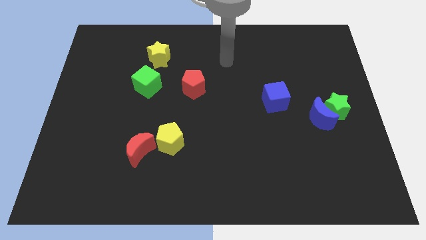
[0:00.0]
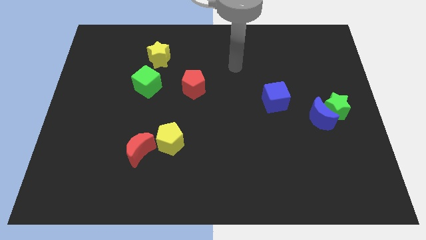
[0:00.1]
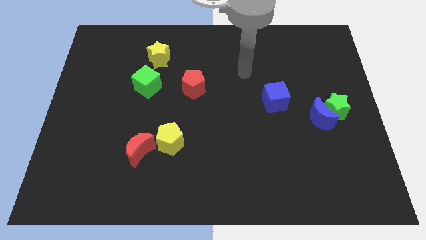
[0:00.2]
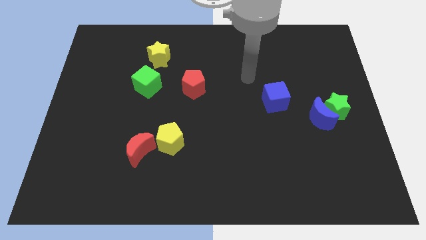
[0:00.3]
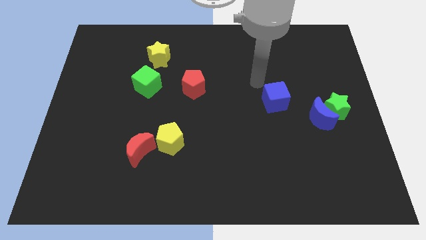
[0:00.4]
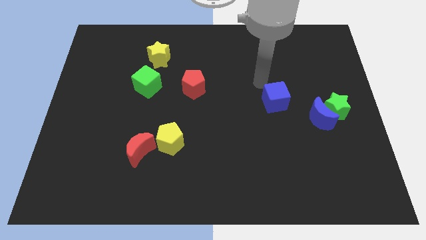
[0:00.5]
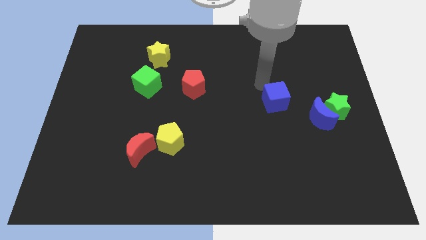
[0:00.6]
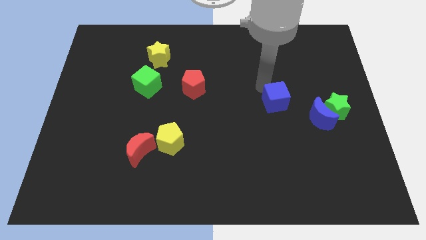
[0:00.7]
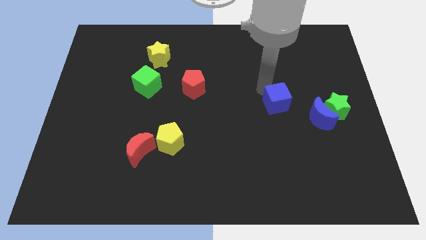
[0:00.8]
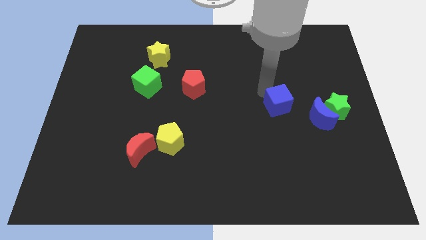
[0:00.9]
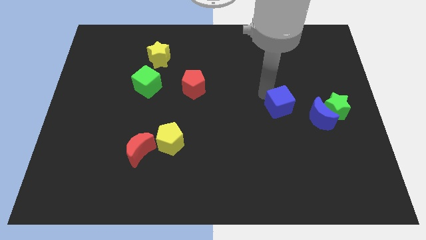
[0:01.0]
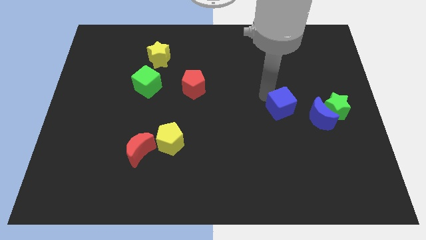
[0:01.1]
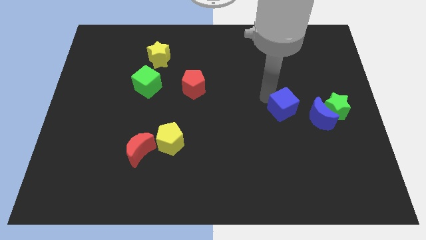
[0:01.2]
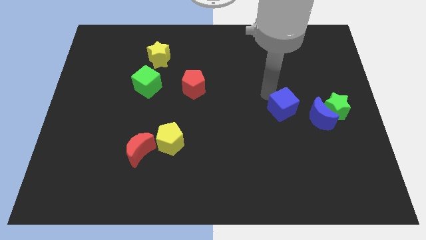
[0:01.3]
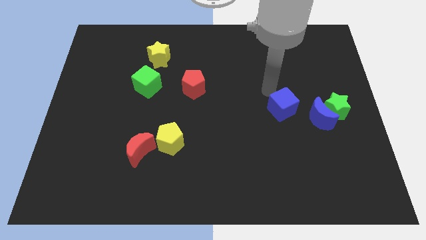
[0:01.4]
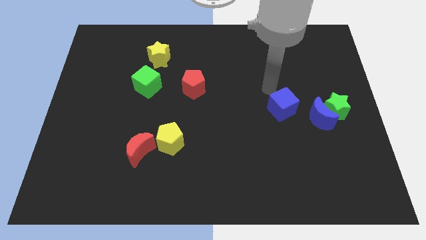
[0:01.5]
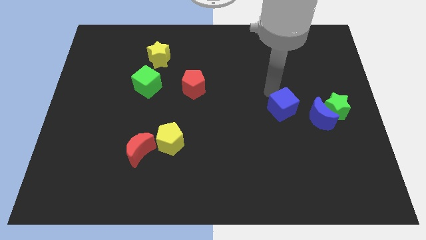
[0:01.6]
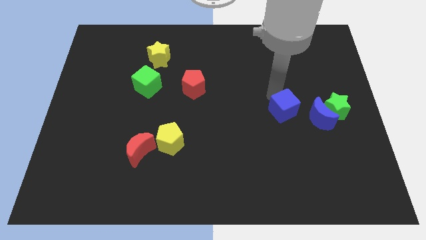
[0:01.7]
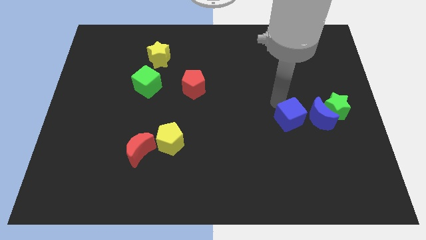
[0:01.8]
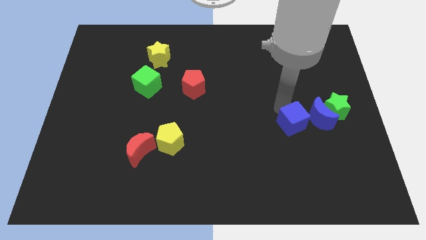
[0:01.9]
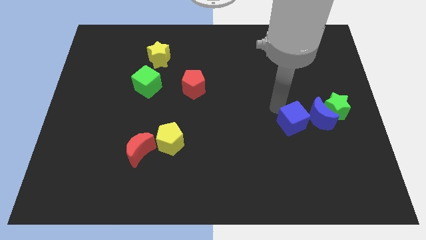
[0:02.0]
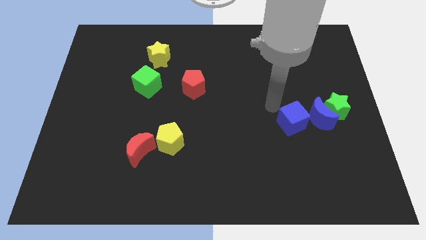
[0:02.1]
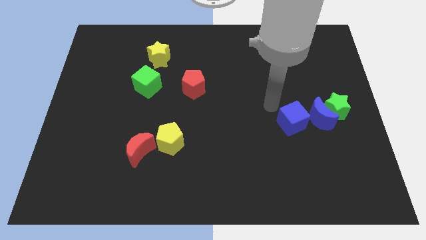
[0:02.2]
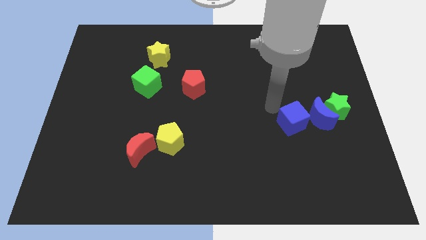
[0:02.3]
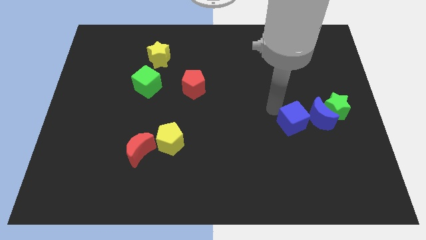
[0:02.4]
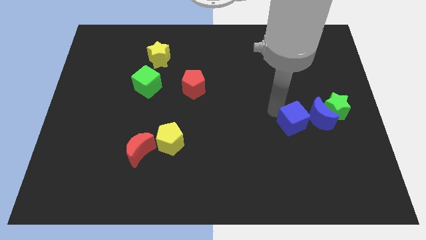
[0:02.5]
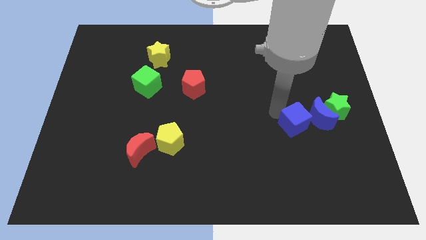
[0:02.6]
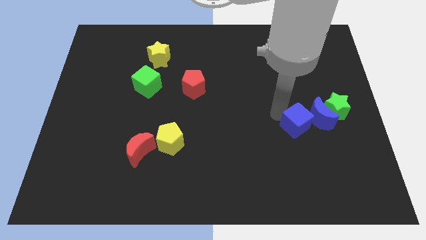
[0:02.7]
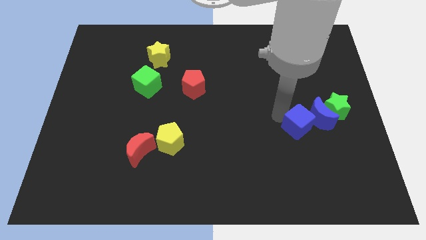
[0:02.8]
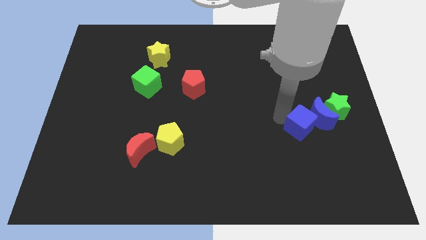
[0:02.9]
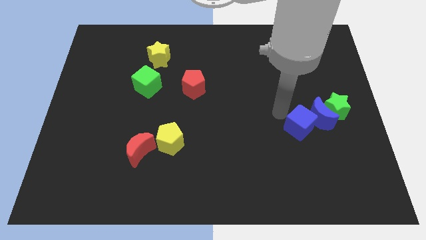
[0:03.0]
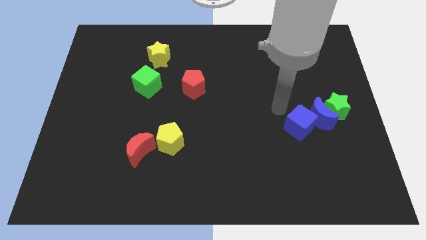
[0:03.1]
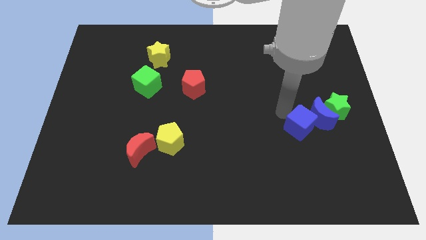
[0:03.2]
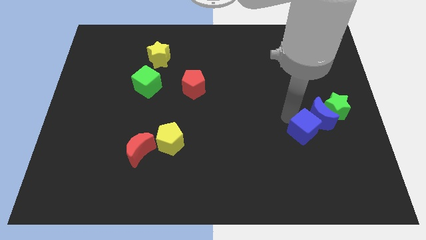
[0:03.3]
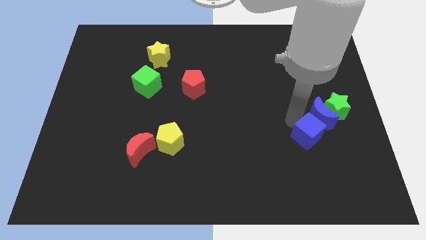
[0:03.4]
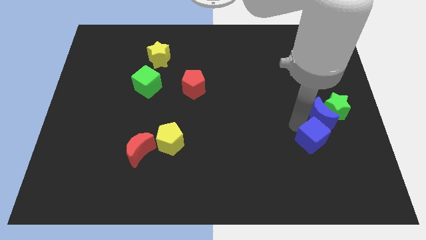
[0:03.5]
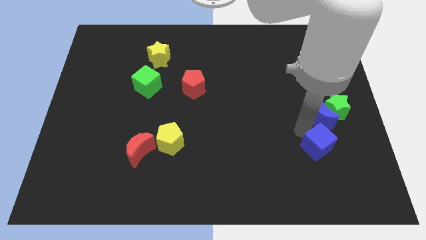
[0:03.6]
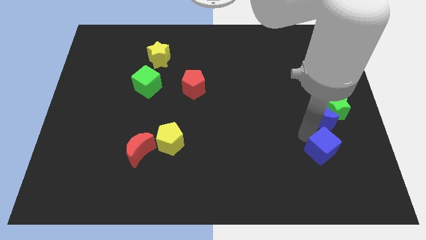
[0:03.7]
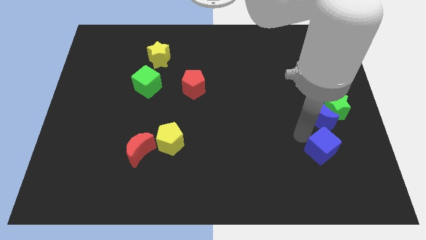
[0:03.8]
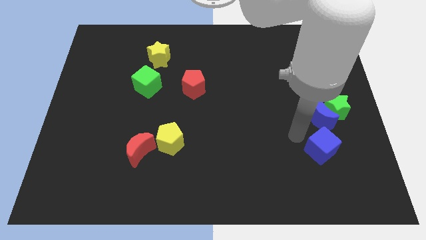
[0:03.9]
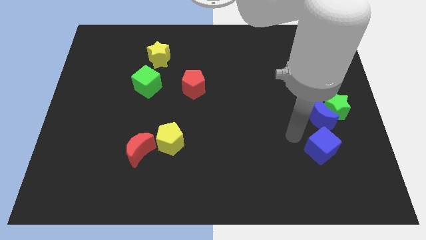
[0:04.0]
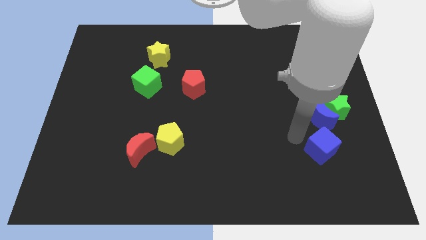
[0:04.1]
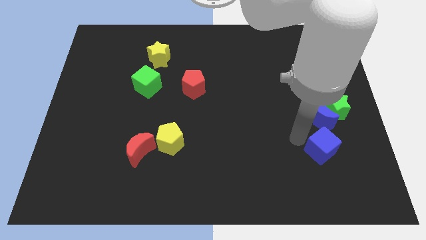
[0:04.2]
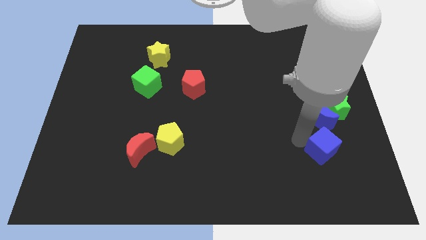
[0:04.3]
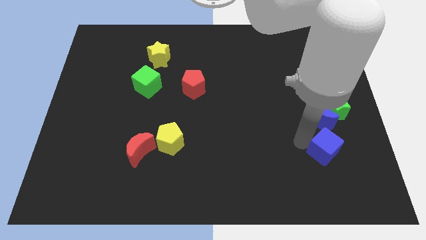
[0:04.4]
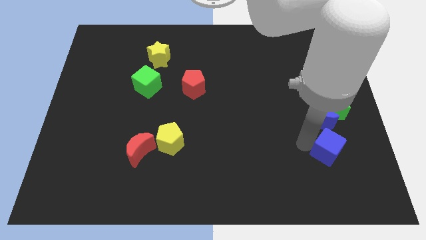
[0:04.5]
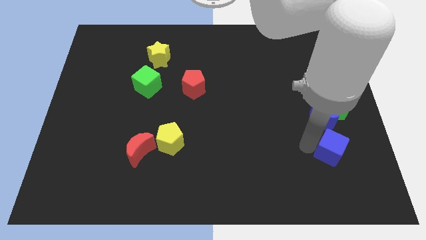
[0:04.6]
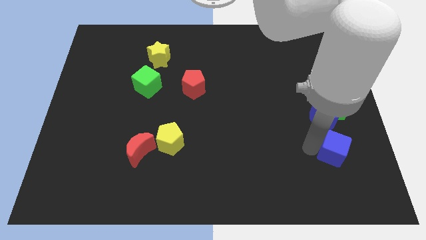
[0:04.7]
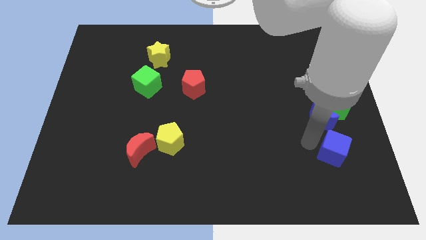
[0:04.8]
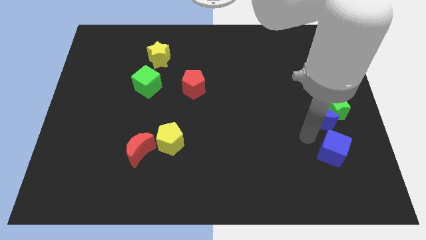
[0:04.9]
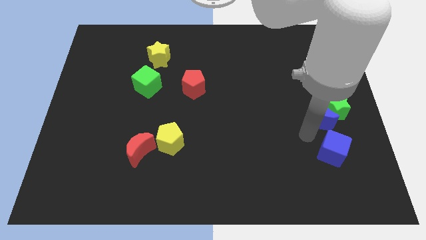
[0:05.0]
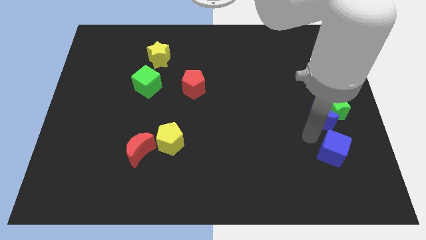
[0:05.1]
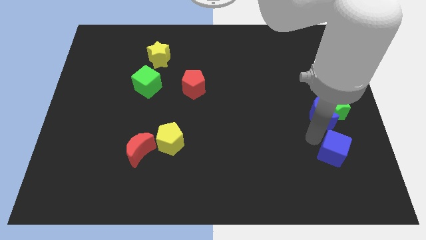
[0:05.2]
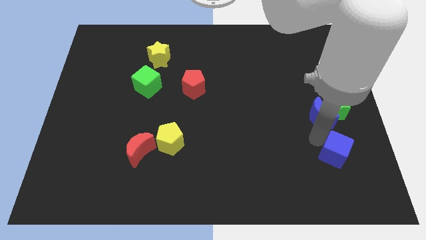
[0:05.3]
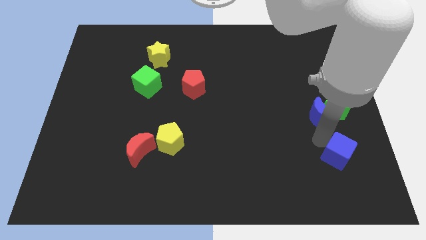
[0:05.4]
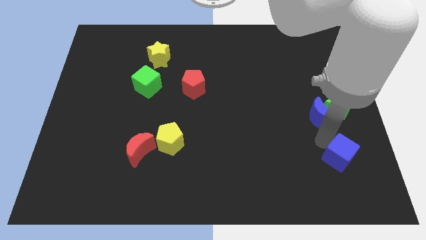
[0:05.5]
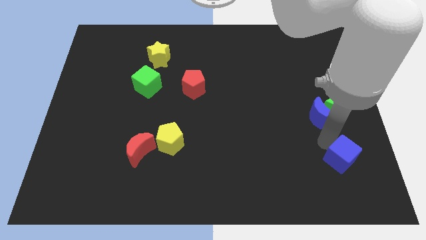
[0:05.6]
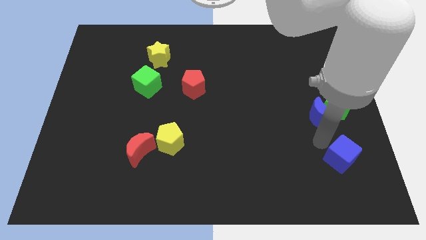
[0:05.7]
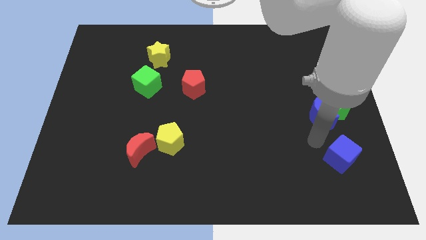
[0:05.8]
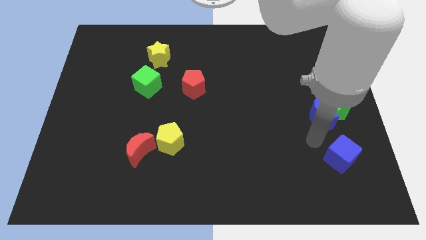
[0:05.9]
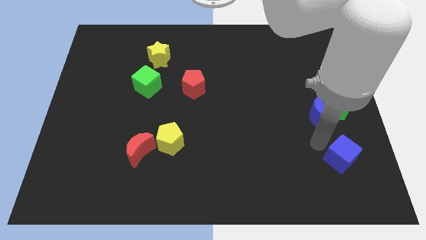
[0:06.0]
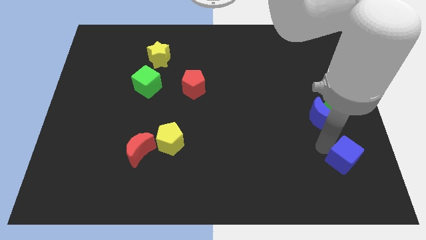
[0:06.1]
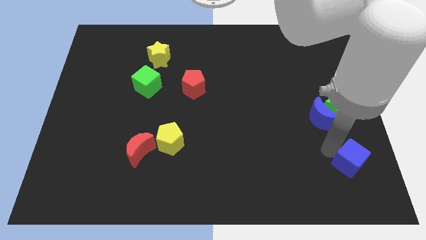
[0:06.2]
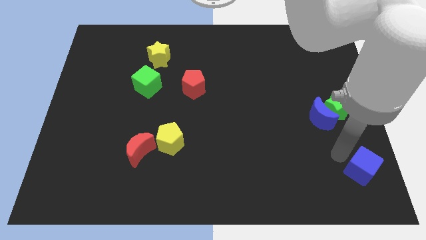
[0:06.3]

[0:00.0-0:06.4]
push the blue cube to the bottom right corner

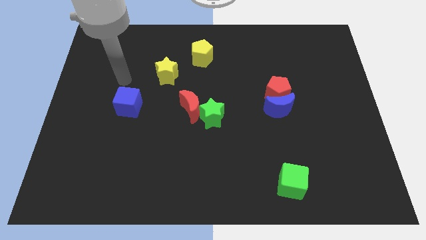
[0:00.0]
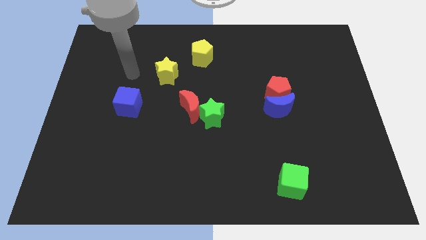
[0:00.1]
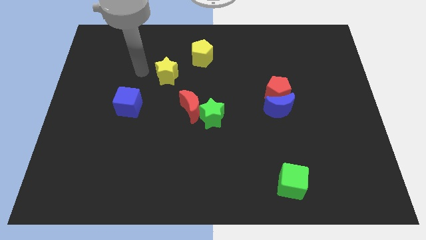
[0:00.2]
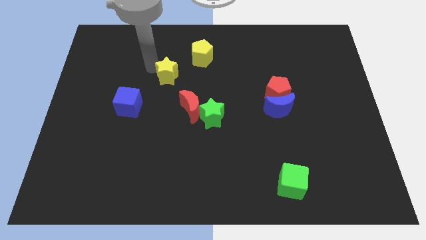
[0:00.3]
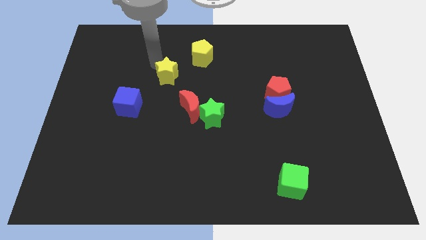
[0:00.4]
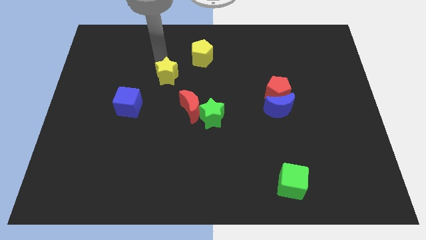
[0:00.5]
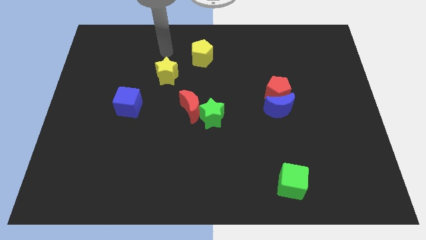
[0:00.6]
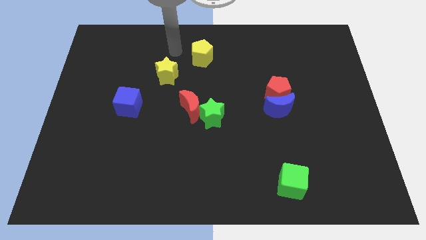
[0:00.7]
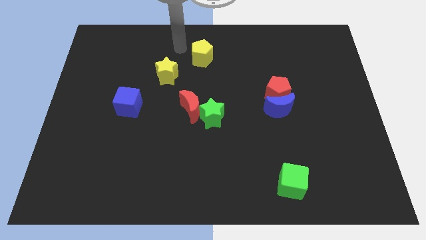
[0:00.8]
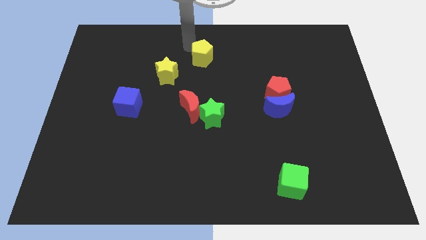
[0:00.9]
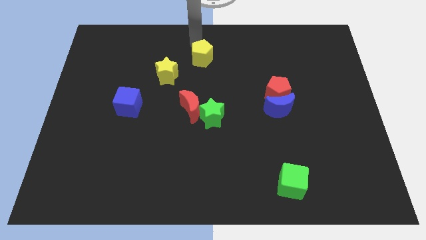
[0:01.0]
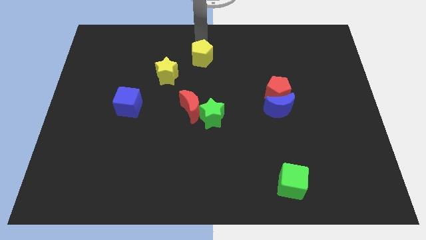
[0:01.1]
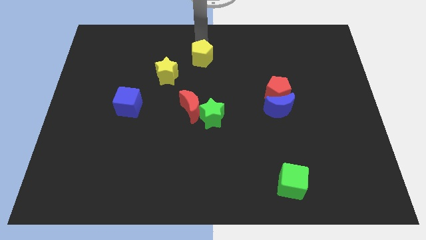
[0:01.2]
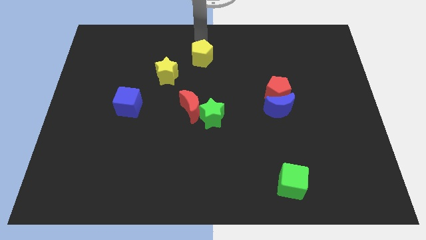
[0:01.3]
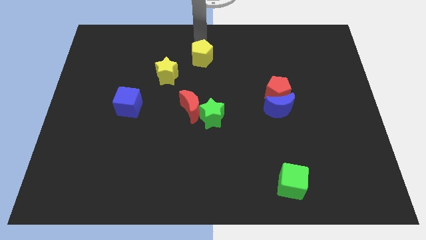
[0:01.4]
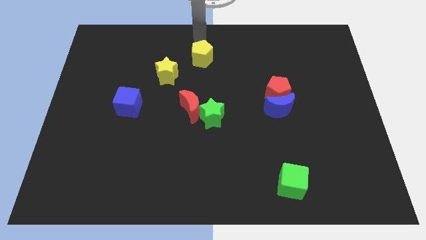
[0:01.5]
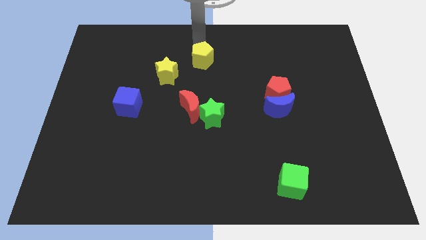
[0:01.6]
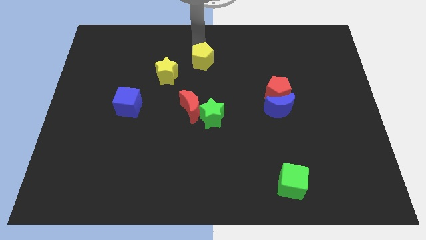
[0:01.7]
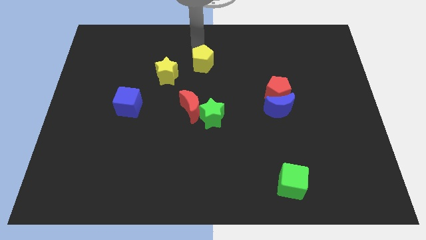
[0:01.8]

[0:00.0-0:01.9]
move the yellow pentagon to the center of the board
